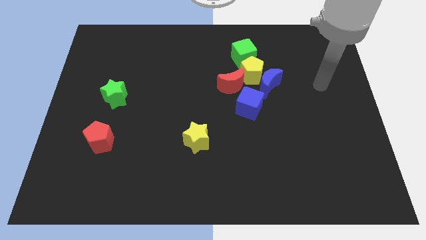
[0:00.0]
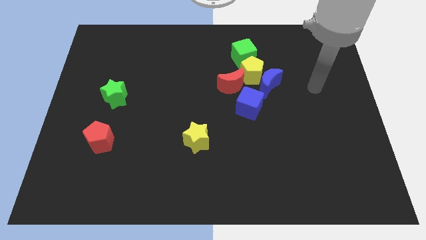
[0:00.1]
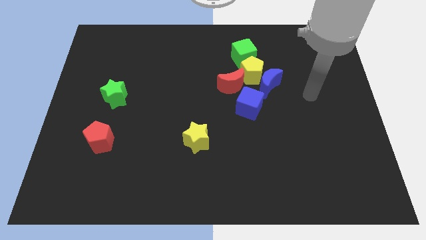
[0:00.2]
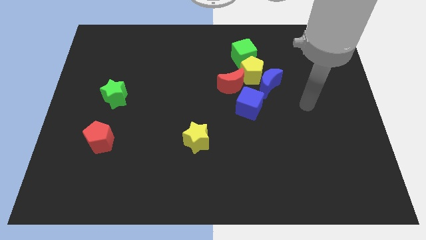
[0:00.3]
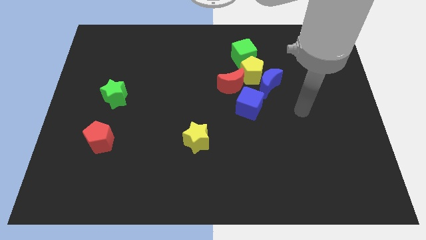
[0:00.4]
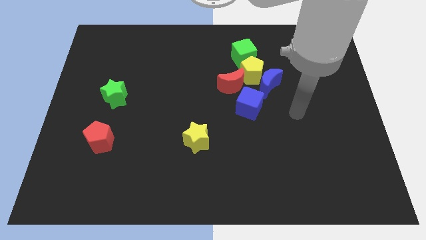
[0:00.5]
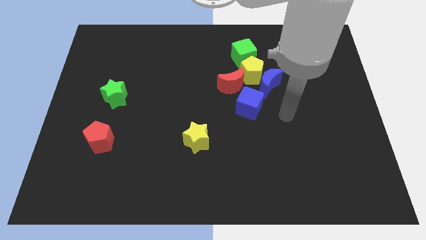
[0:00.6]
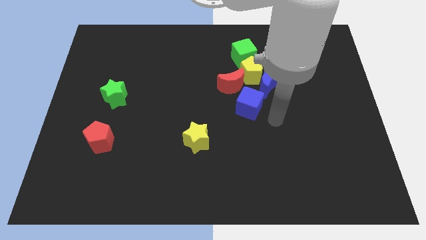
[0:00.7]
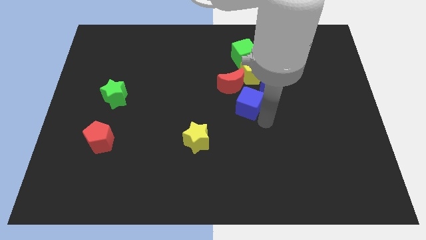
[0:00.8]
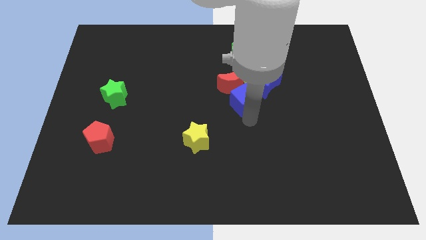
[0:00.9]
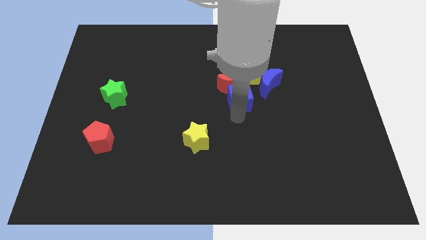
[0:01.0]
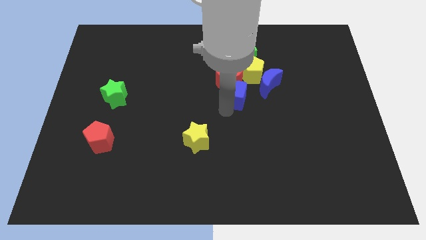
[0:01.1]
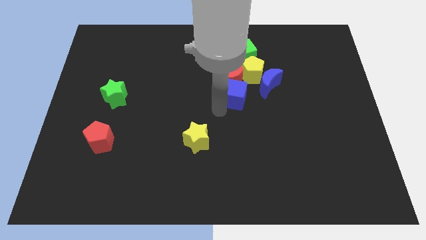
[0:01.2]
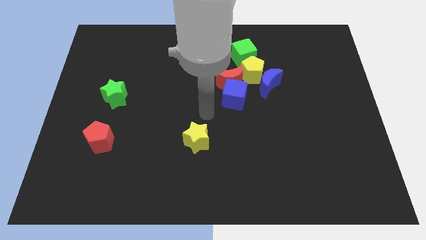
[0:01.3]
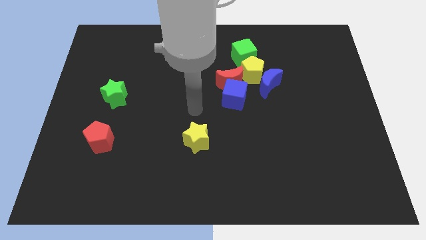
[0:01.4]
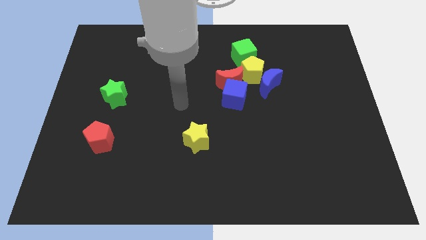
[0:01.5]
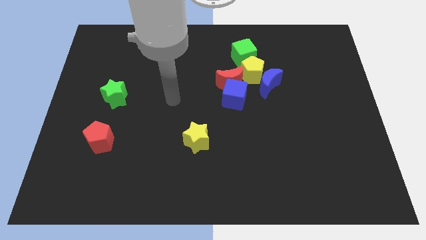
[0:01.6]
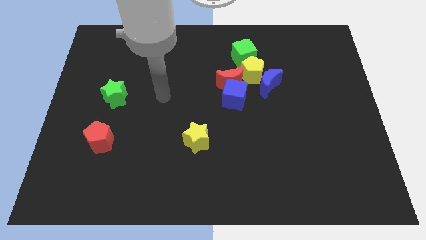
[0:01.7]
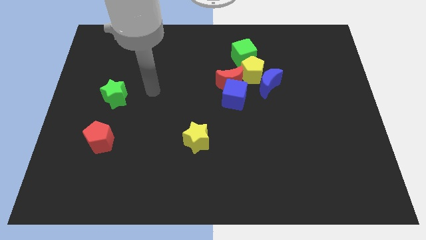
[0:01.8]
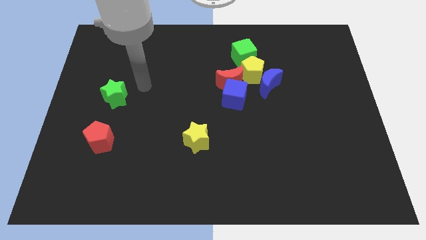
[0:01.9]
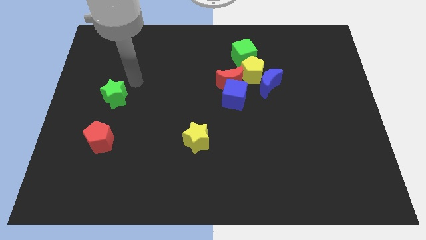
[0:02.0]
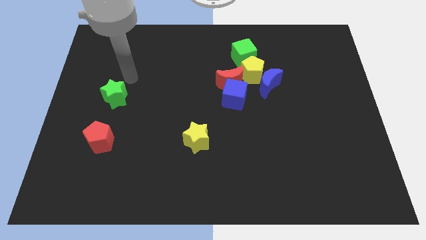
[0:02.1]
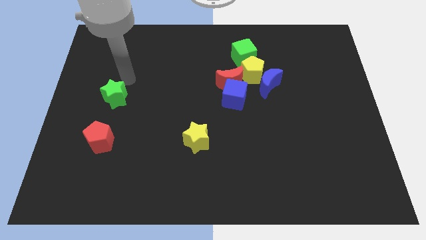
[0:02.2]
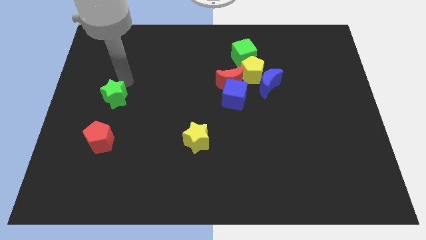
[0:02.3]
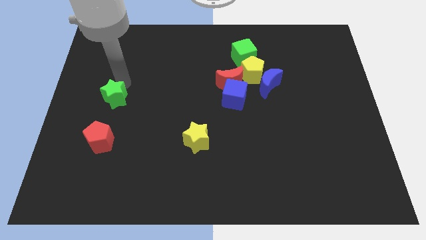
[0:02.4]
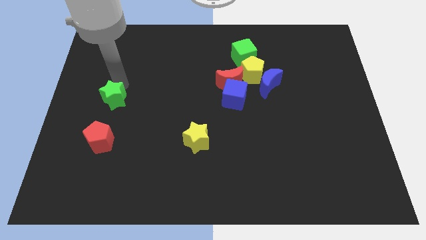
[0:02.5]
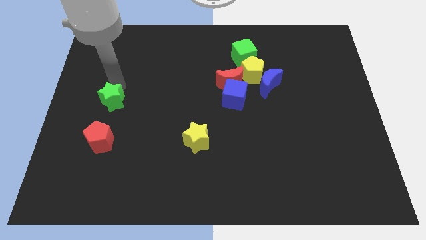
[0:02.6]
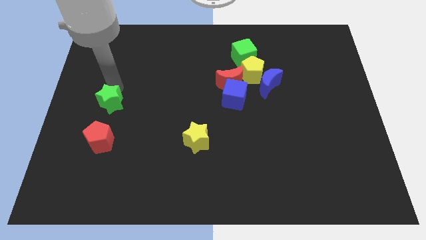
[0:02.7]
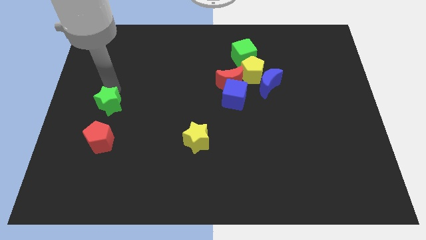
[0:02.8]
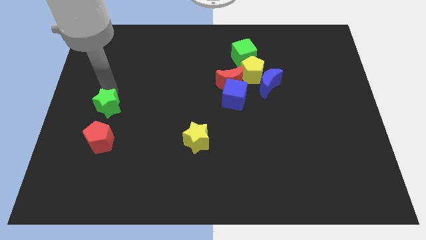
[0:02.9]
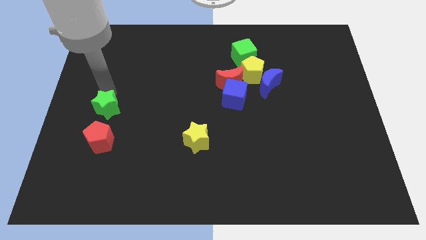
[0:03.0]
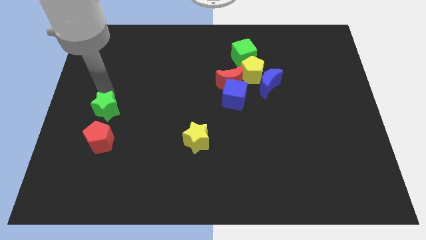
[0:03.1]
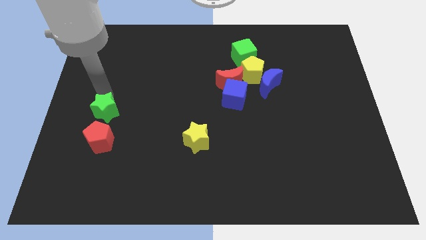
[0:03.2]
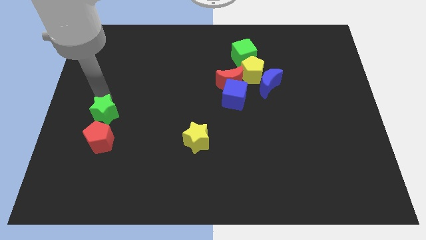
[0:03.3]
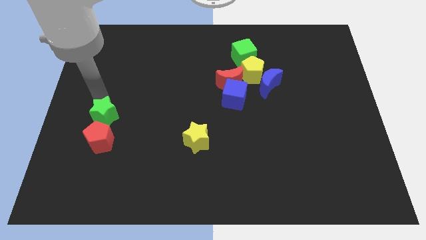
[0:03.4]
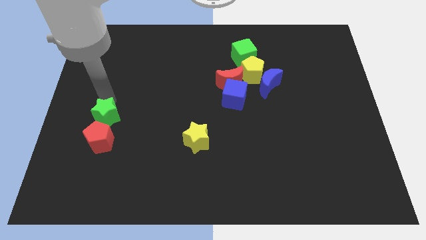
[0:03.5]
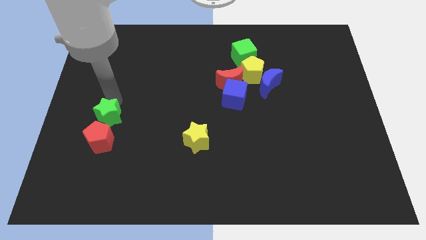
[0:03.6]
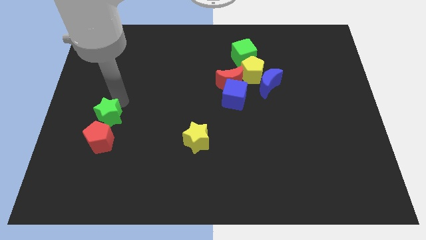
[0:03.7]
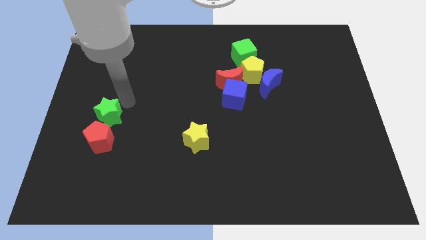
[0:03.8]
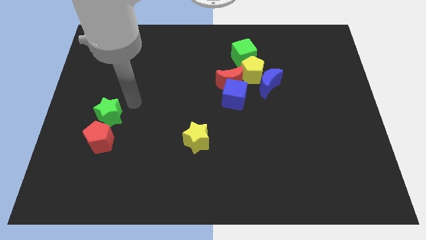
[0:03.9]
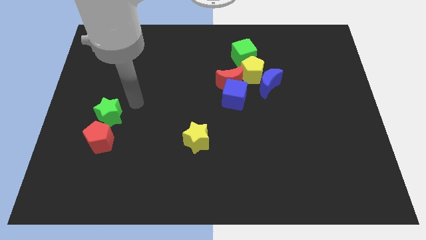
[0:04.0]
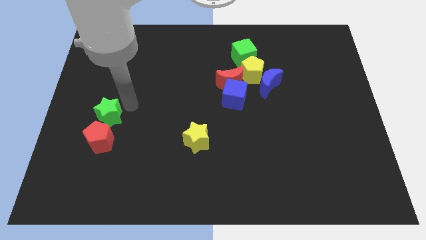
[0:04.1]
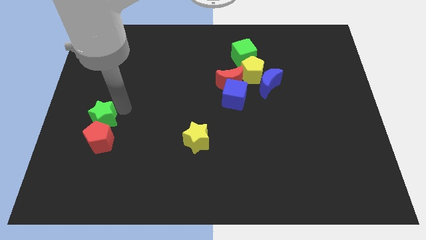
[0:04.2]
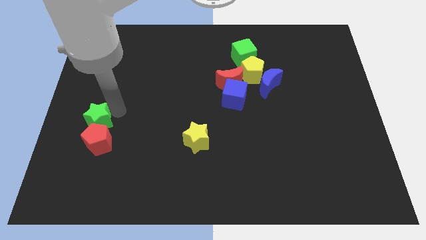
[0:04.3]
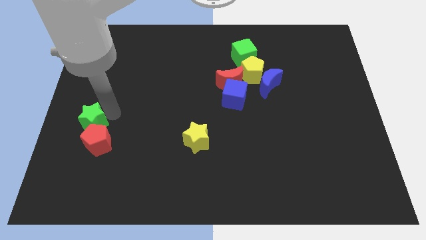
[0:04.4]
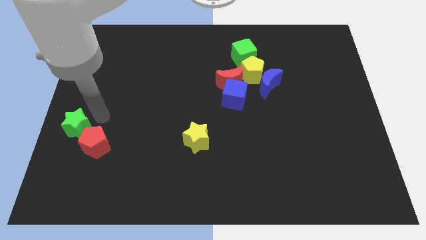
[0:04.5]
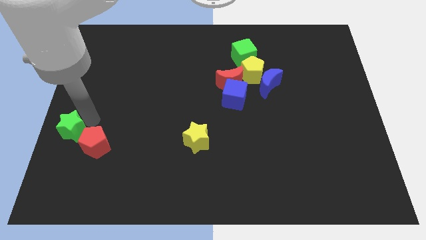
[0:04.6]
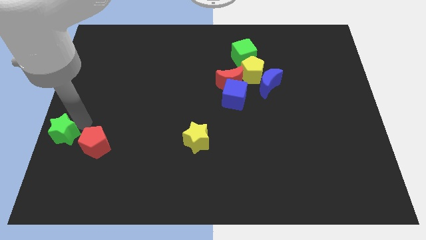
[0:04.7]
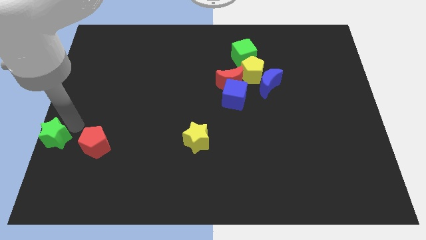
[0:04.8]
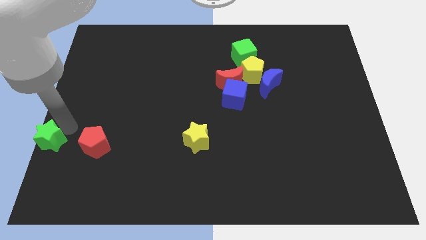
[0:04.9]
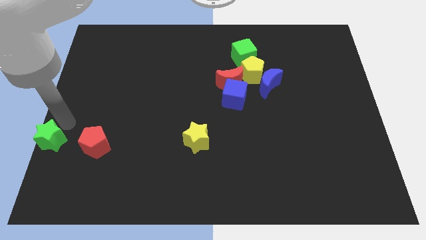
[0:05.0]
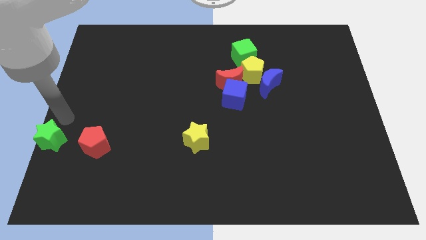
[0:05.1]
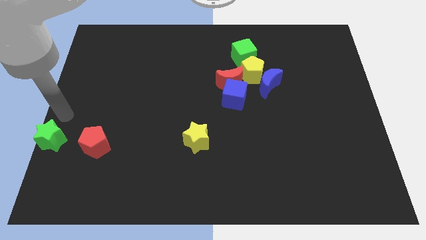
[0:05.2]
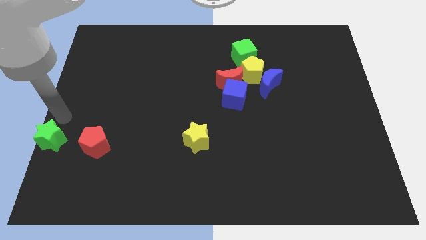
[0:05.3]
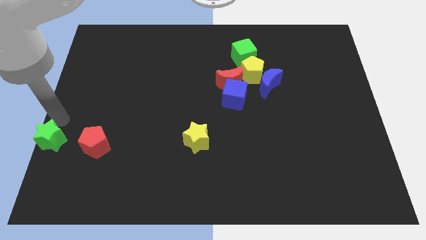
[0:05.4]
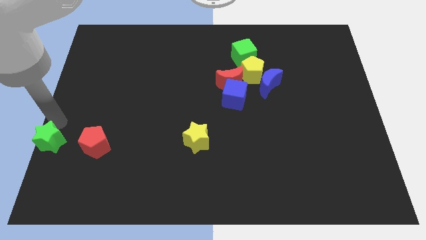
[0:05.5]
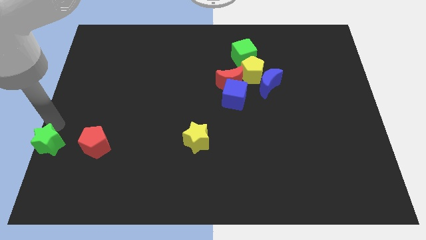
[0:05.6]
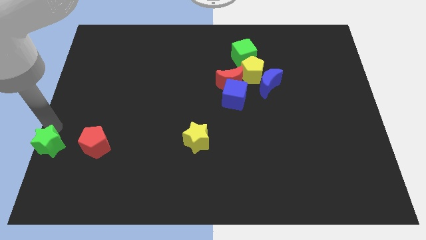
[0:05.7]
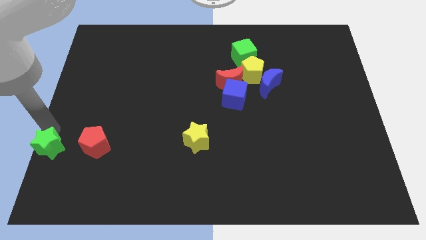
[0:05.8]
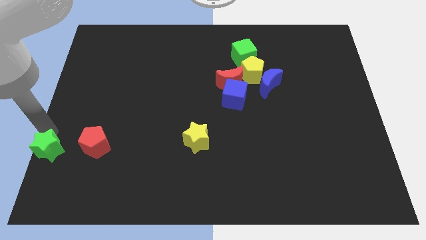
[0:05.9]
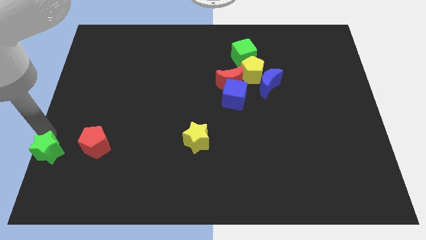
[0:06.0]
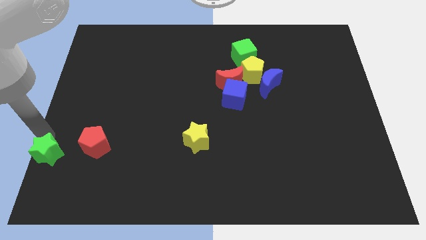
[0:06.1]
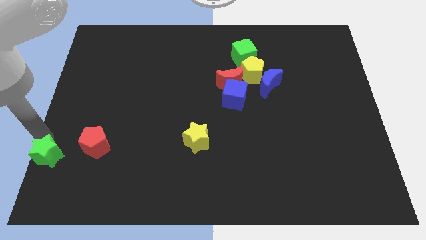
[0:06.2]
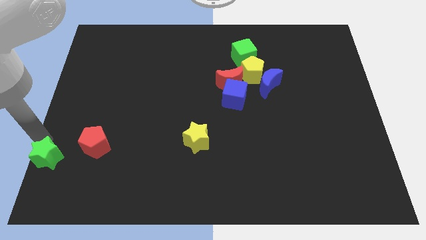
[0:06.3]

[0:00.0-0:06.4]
move the green star to the bottom left of the board
